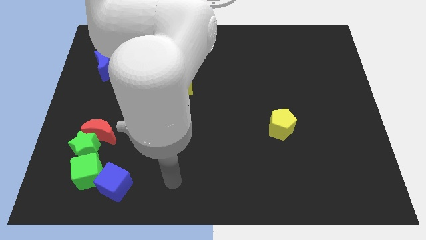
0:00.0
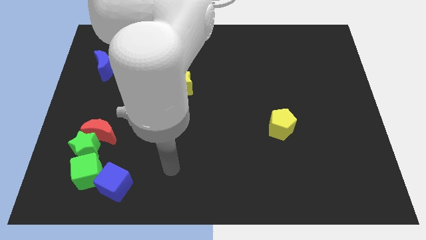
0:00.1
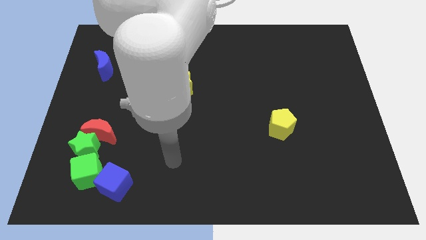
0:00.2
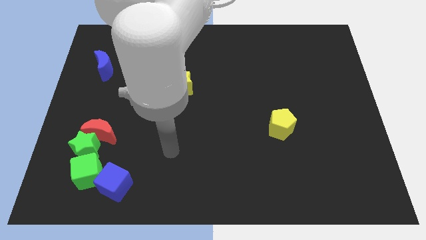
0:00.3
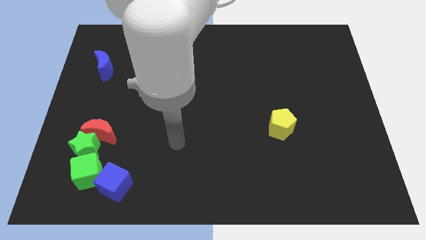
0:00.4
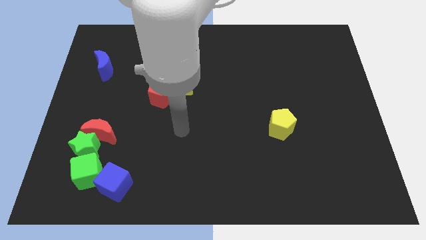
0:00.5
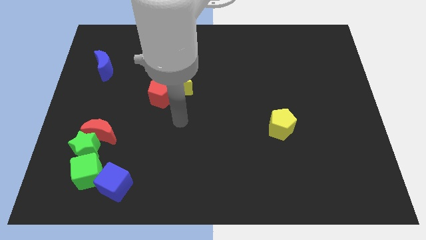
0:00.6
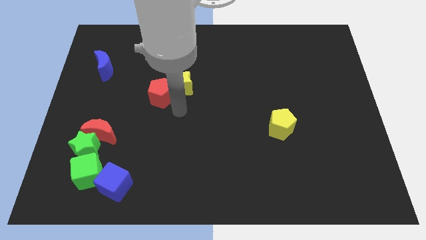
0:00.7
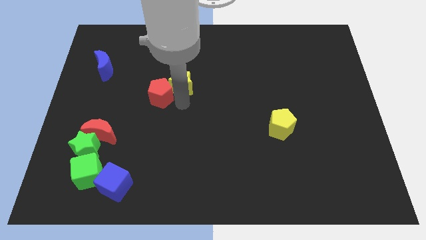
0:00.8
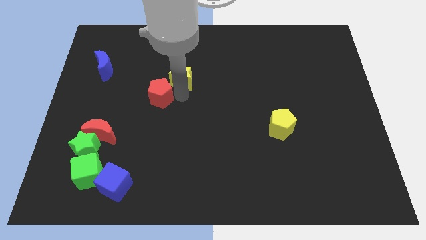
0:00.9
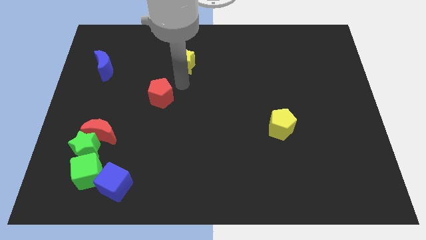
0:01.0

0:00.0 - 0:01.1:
pull the red pentagon apart from the yellow star

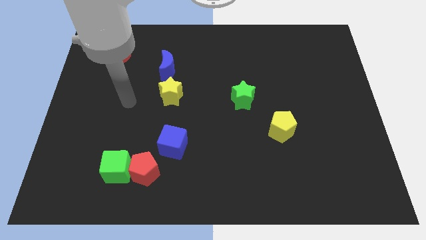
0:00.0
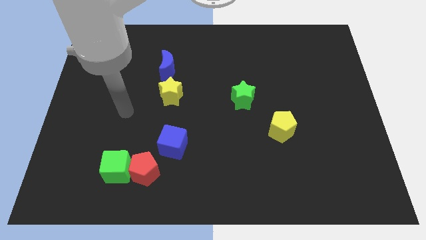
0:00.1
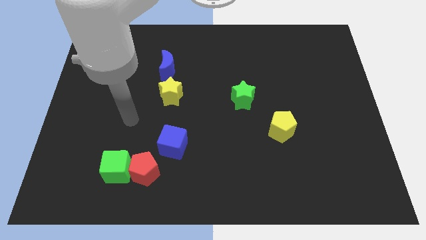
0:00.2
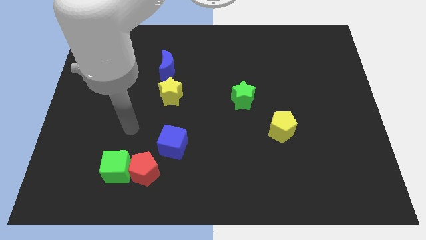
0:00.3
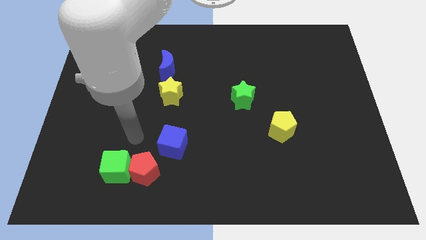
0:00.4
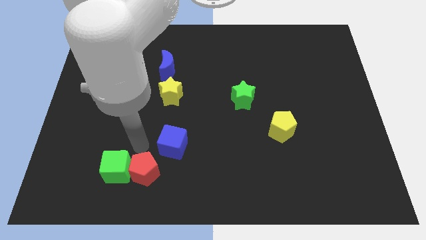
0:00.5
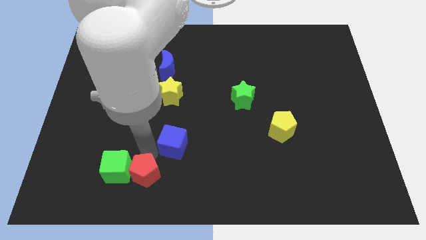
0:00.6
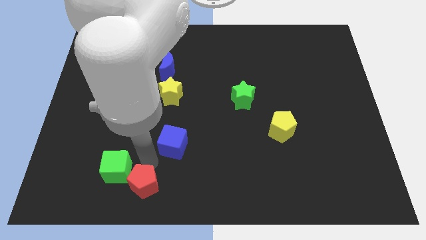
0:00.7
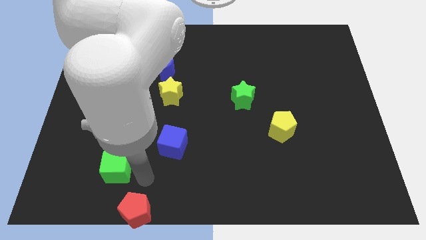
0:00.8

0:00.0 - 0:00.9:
move the green cube away from the red pentagon

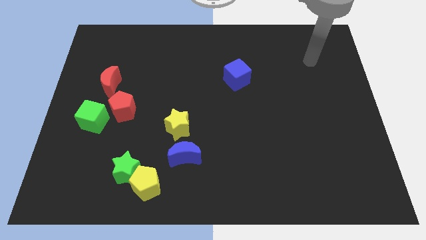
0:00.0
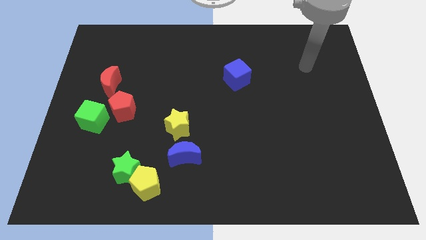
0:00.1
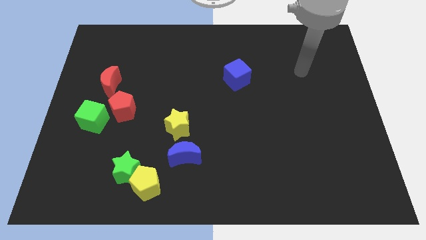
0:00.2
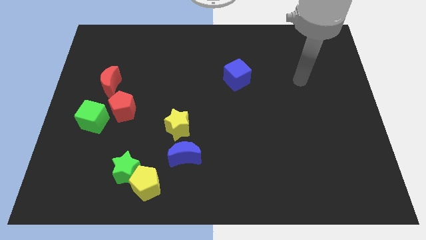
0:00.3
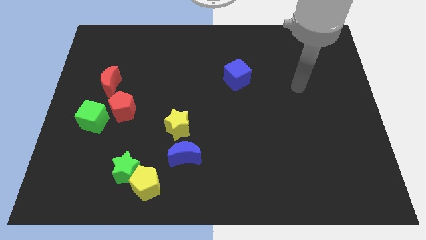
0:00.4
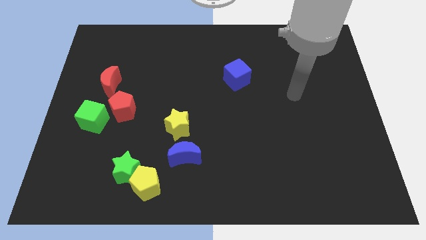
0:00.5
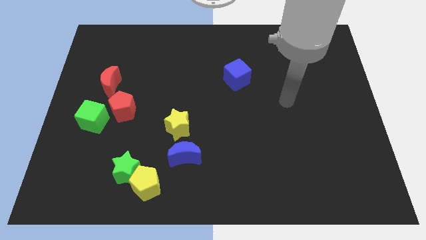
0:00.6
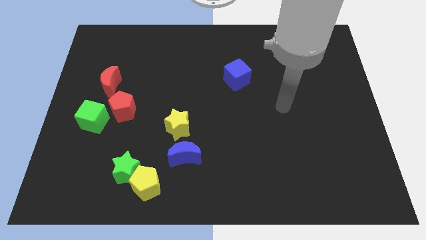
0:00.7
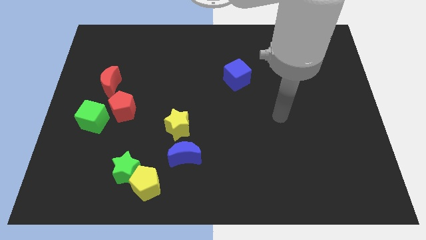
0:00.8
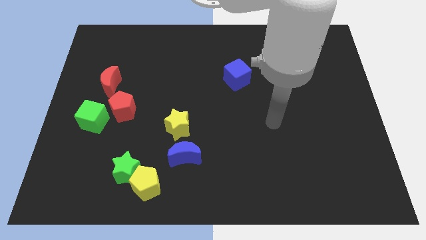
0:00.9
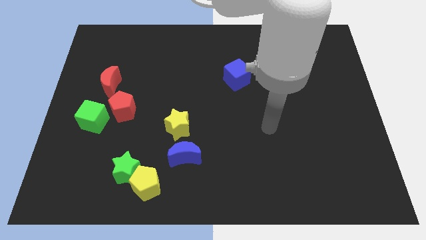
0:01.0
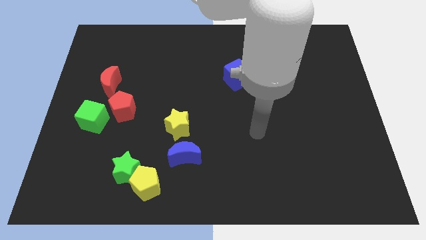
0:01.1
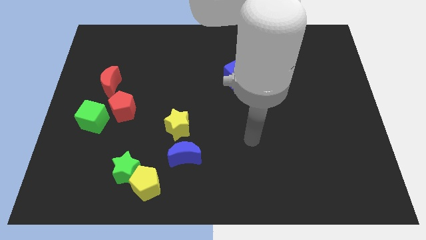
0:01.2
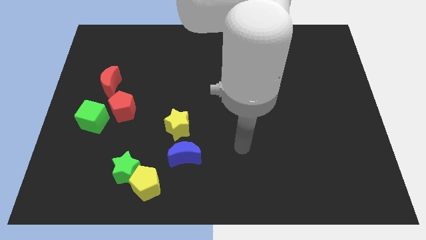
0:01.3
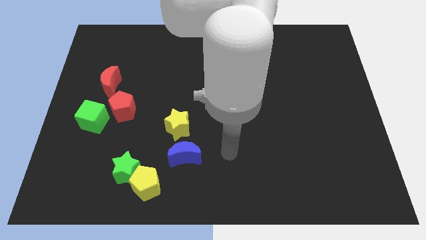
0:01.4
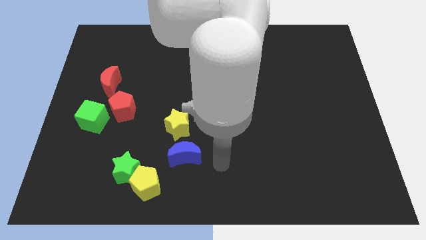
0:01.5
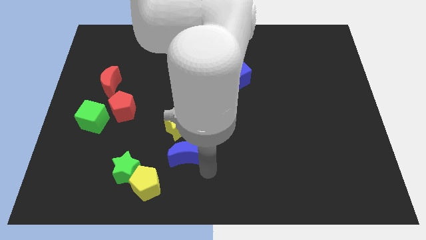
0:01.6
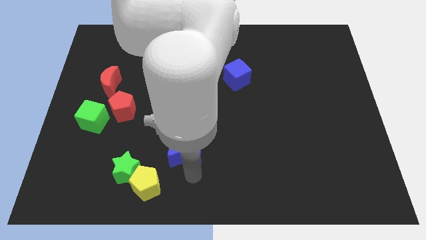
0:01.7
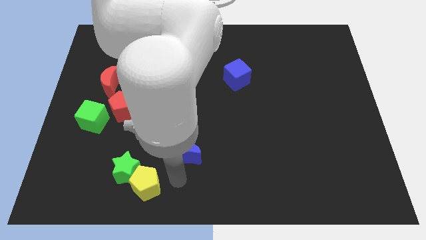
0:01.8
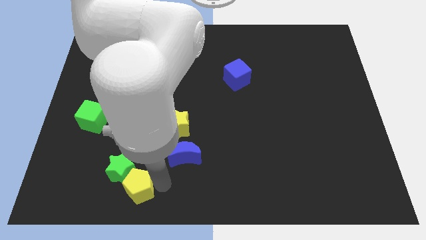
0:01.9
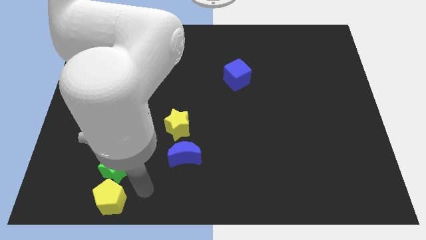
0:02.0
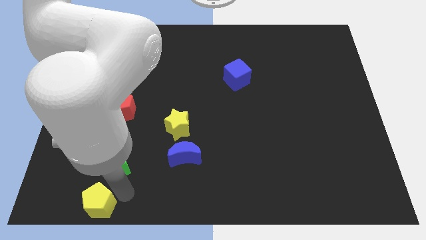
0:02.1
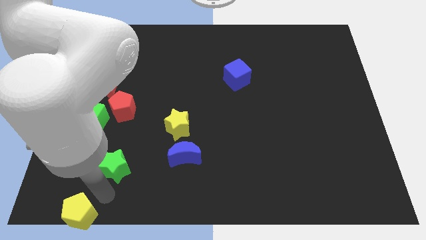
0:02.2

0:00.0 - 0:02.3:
separate the green star from the yellow pentagon

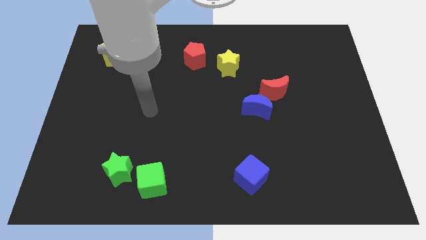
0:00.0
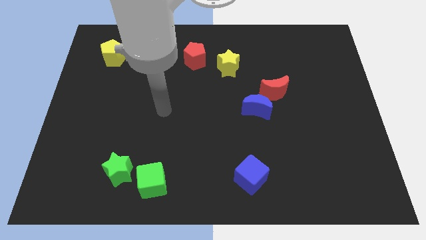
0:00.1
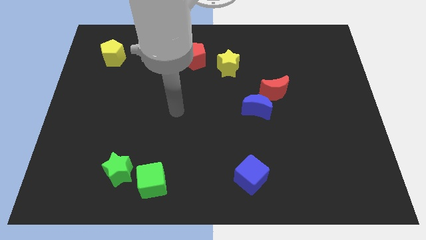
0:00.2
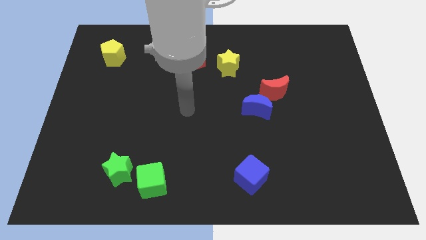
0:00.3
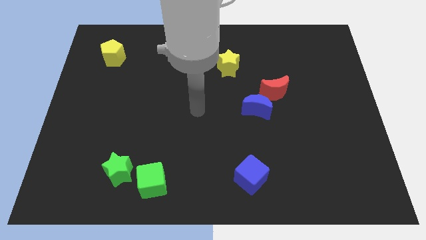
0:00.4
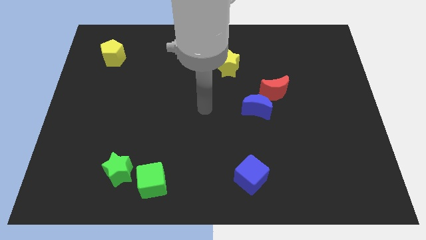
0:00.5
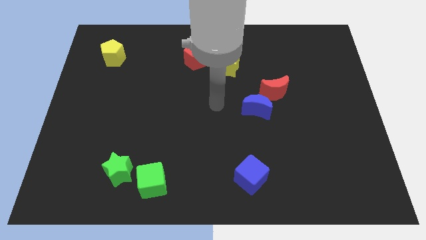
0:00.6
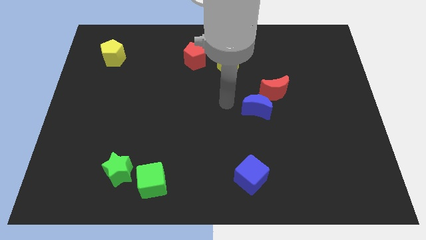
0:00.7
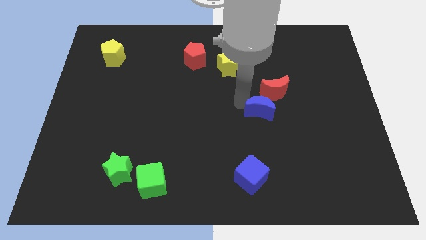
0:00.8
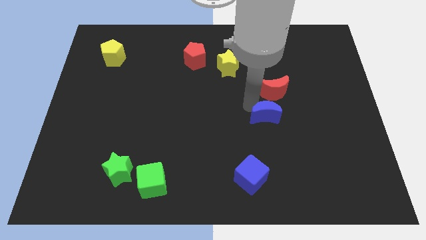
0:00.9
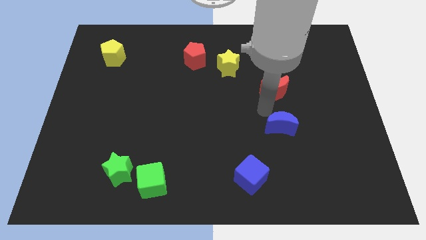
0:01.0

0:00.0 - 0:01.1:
pull the red moon apart from the blue moon

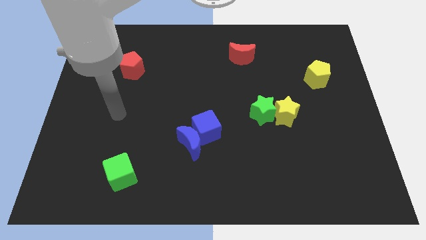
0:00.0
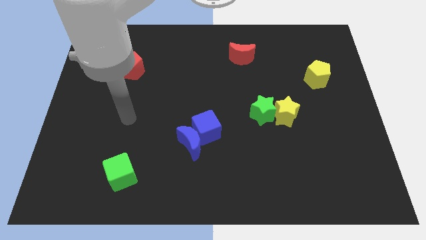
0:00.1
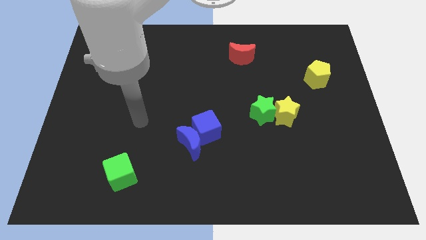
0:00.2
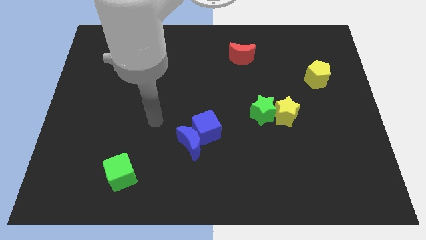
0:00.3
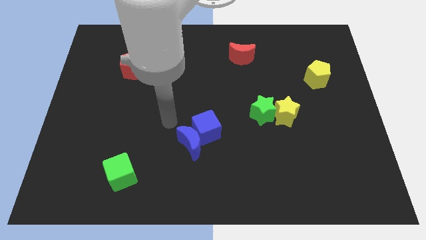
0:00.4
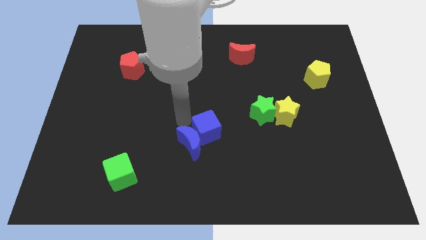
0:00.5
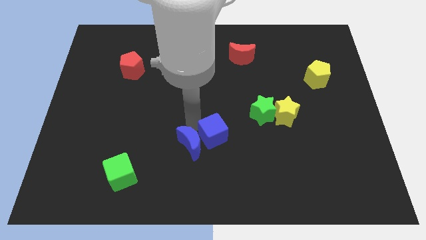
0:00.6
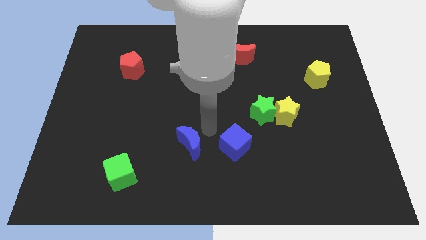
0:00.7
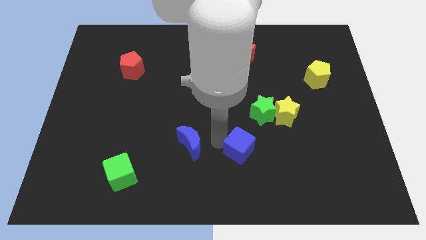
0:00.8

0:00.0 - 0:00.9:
pull the blue moon apart from the blue cube

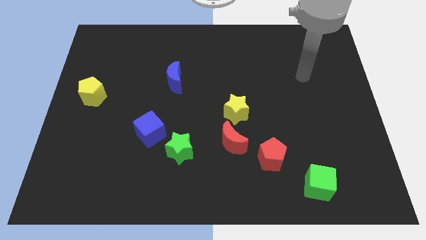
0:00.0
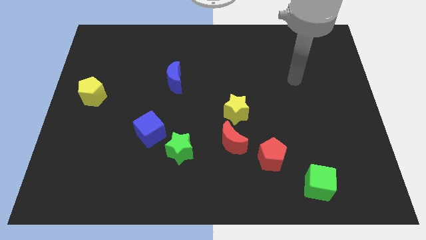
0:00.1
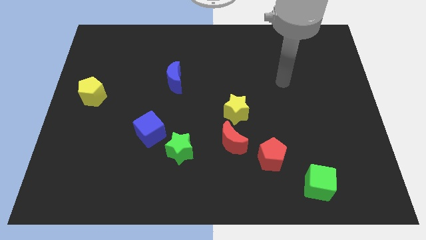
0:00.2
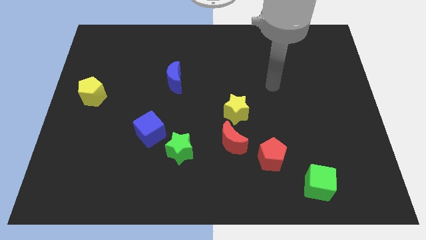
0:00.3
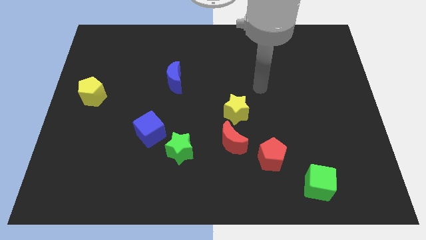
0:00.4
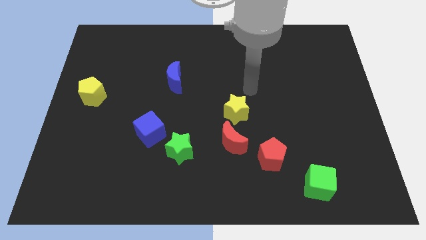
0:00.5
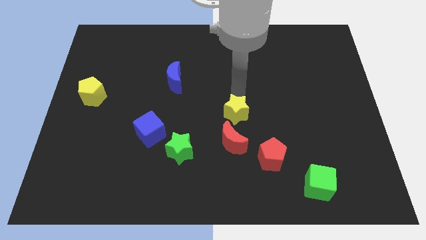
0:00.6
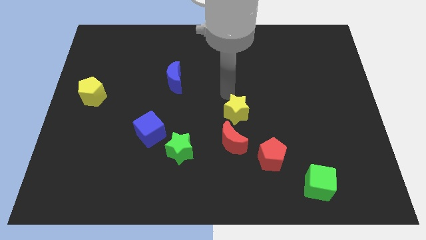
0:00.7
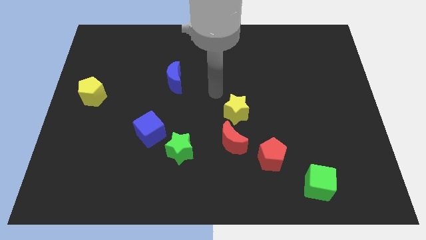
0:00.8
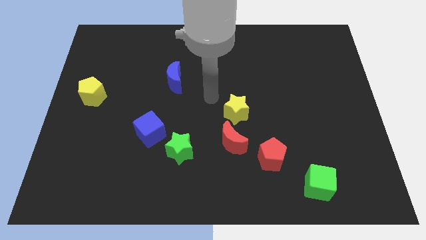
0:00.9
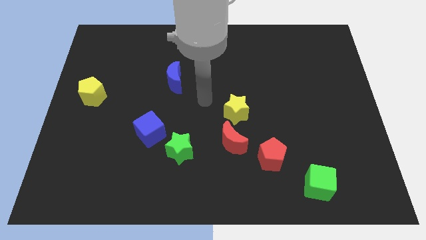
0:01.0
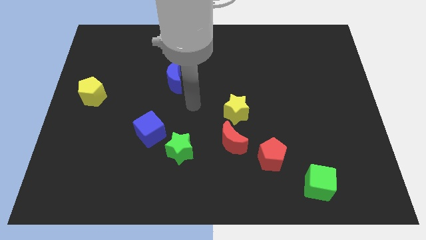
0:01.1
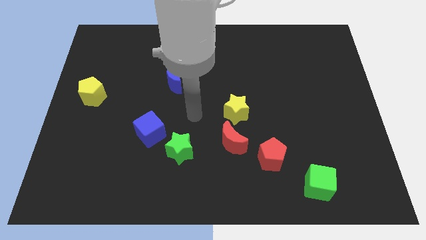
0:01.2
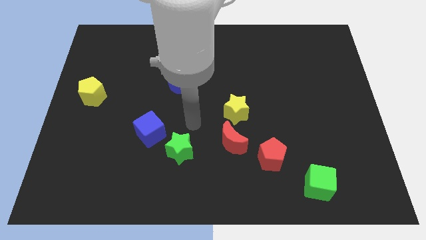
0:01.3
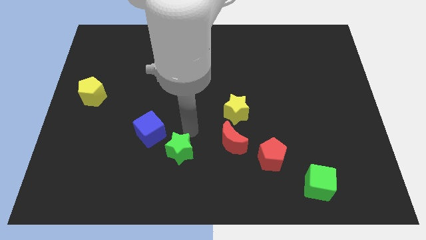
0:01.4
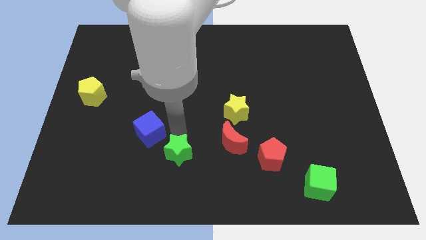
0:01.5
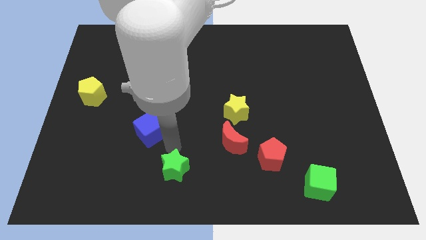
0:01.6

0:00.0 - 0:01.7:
move the blue cube away from the green star

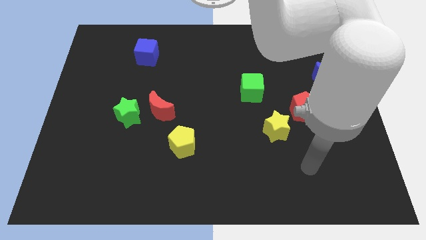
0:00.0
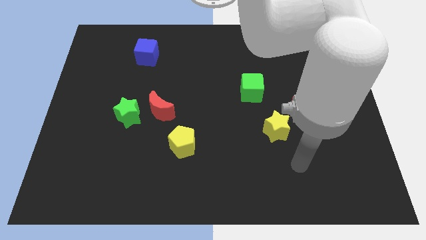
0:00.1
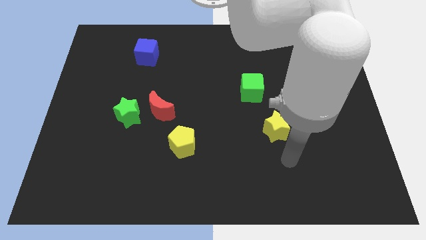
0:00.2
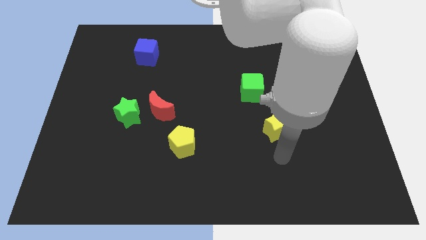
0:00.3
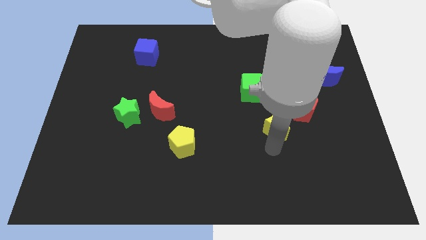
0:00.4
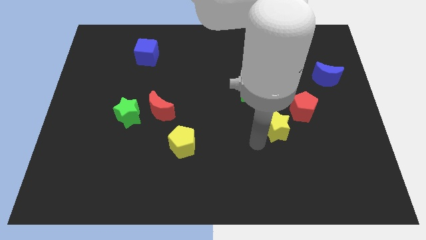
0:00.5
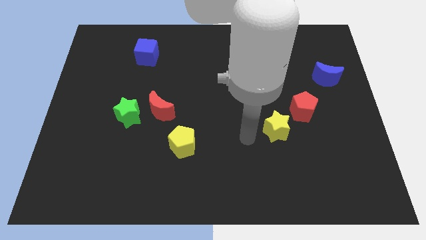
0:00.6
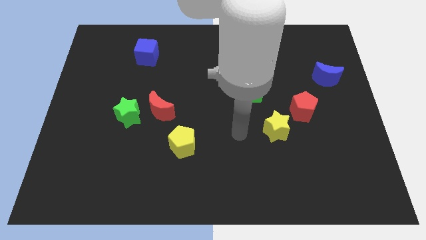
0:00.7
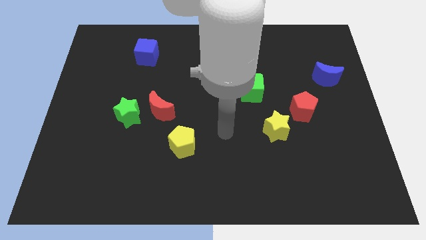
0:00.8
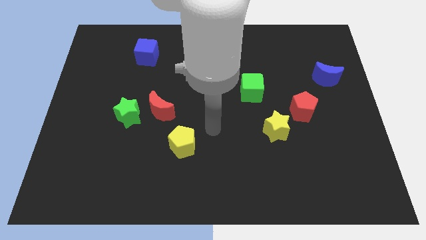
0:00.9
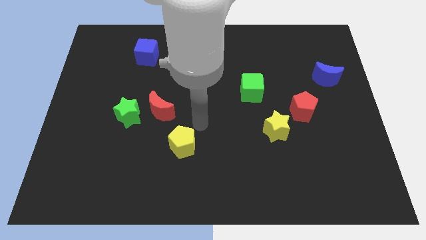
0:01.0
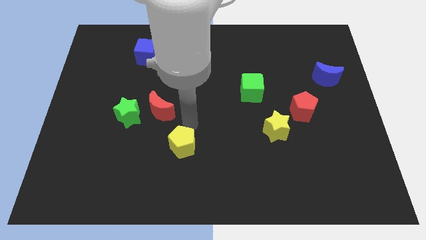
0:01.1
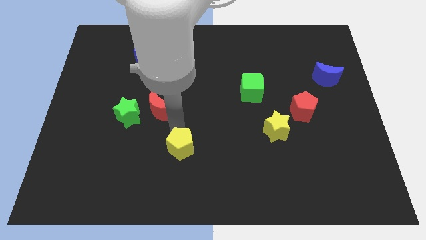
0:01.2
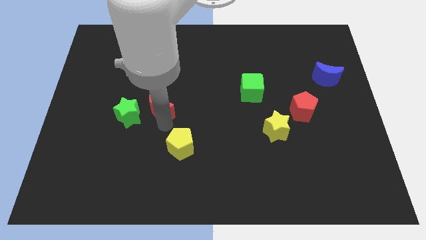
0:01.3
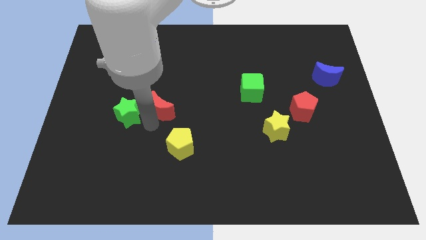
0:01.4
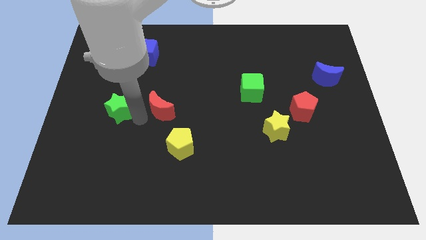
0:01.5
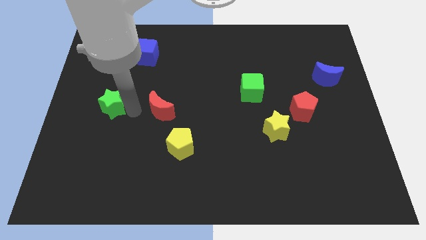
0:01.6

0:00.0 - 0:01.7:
pull the red moon apart from the green star
